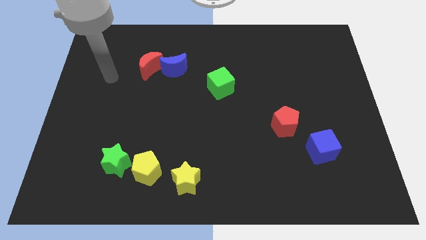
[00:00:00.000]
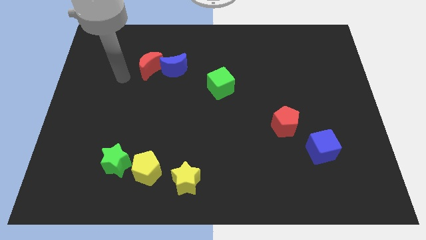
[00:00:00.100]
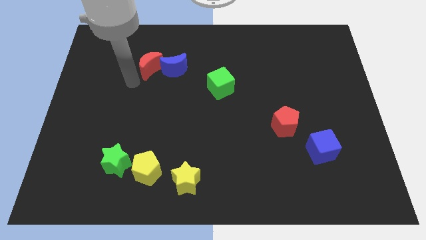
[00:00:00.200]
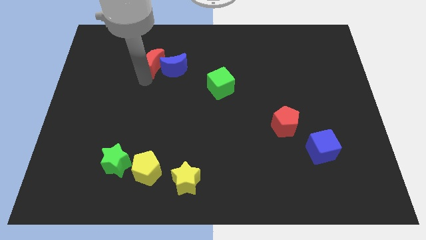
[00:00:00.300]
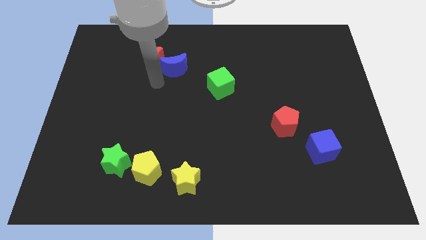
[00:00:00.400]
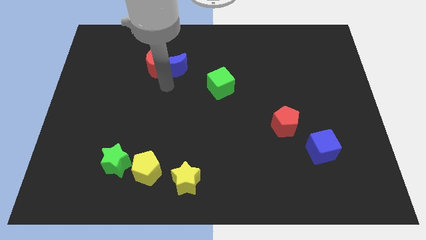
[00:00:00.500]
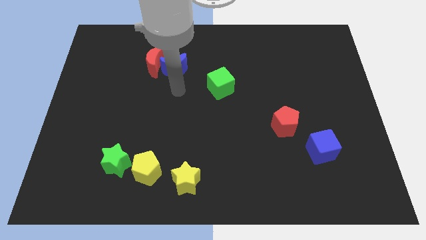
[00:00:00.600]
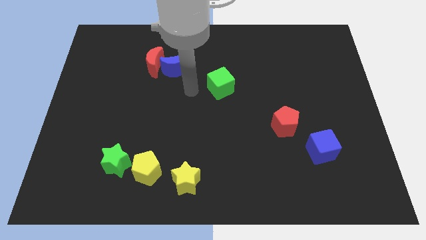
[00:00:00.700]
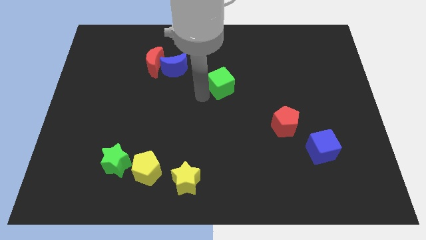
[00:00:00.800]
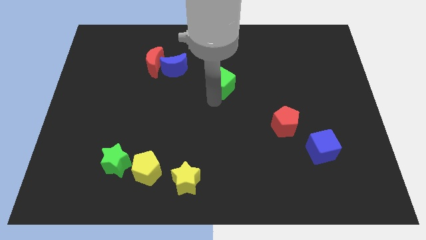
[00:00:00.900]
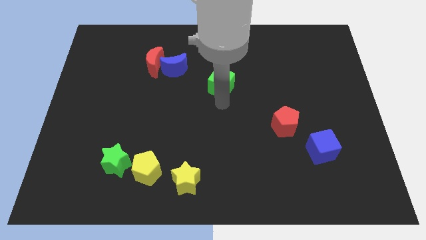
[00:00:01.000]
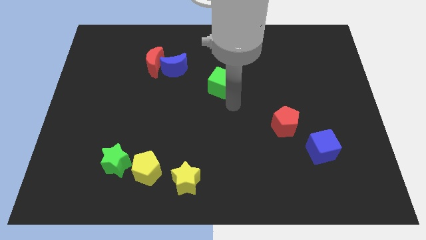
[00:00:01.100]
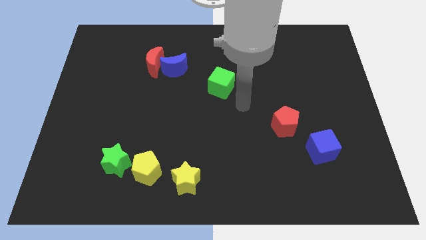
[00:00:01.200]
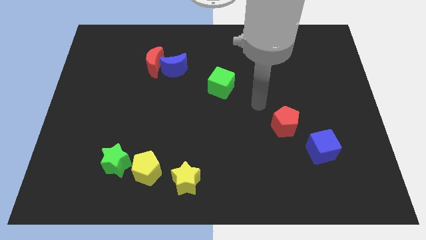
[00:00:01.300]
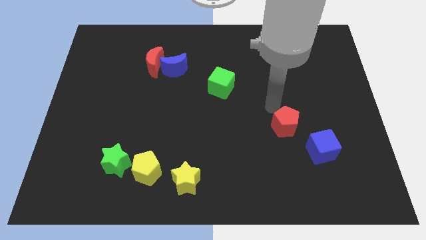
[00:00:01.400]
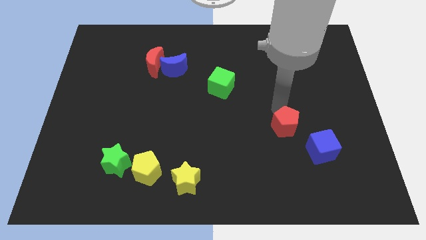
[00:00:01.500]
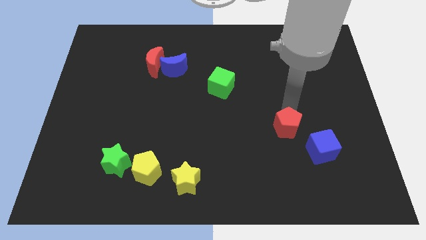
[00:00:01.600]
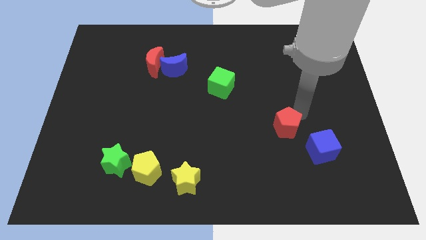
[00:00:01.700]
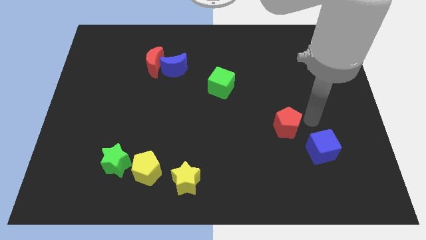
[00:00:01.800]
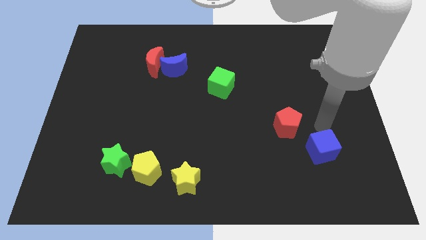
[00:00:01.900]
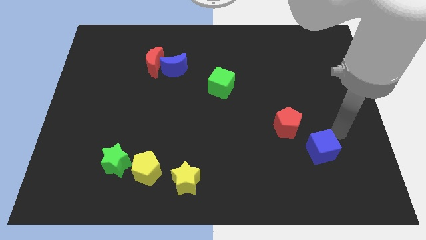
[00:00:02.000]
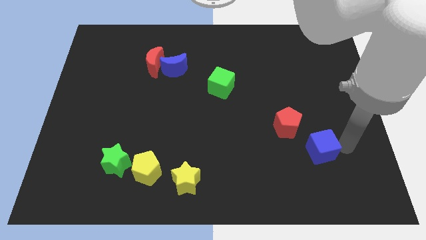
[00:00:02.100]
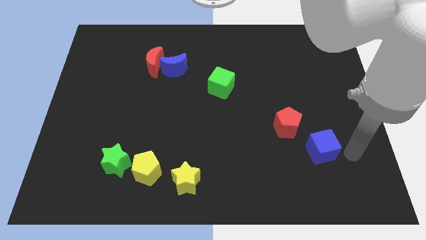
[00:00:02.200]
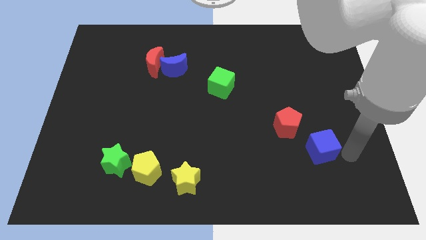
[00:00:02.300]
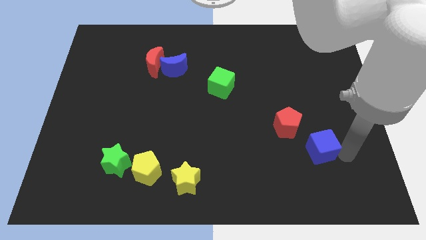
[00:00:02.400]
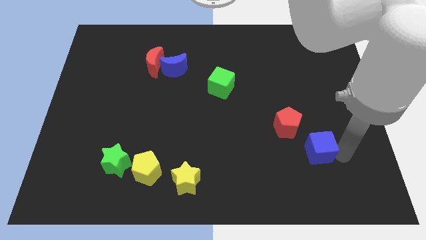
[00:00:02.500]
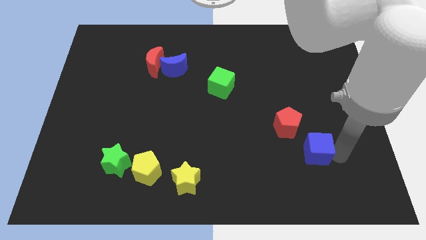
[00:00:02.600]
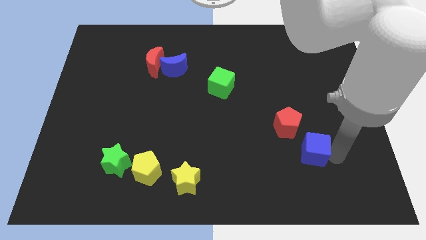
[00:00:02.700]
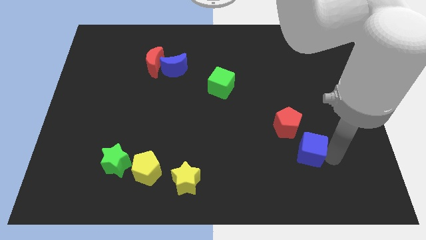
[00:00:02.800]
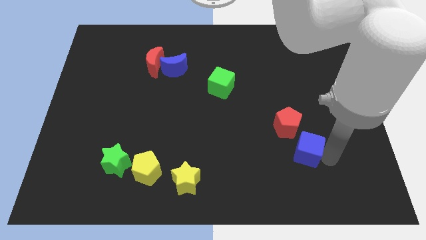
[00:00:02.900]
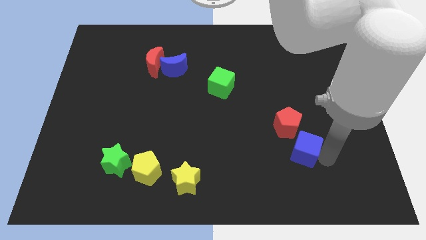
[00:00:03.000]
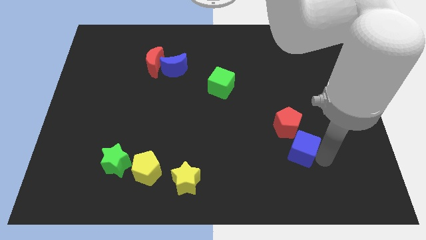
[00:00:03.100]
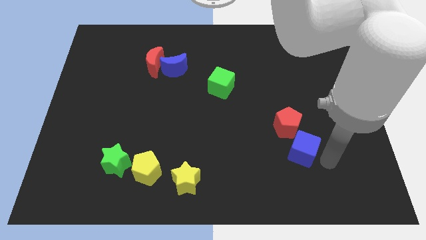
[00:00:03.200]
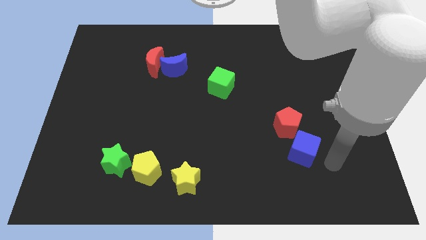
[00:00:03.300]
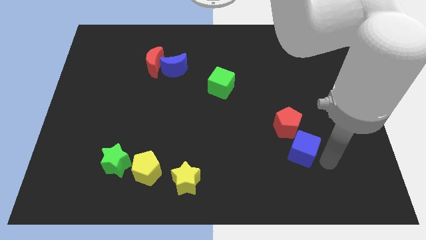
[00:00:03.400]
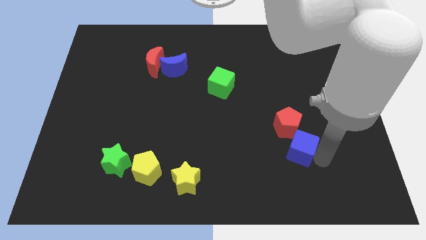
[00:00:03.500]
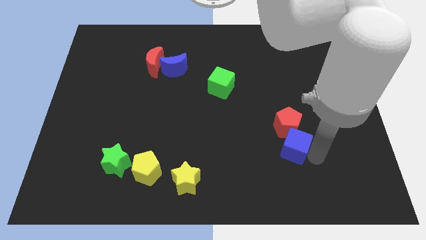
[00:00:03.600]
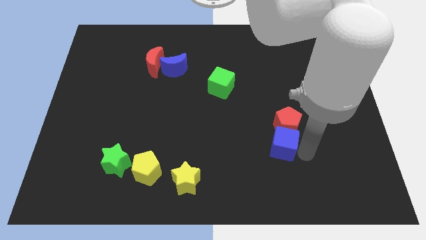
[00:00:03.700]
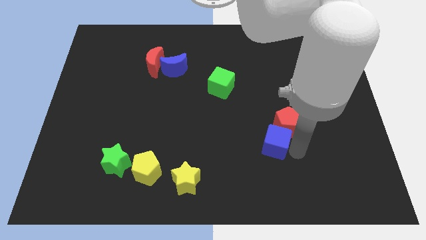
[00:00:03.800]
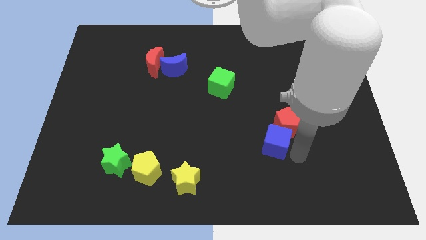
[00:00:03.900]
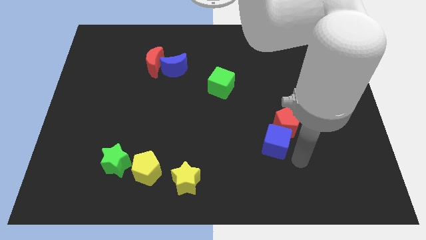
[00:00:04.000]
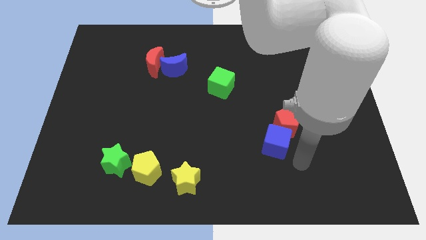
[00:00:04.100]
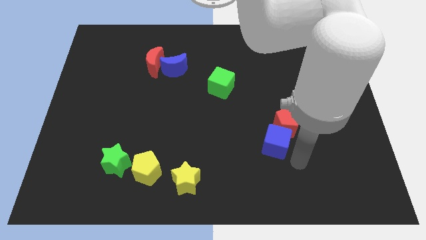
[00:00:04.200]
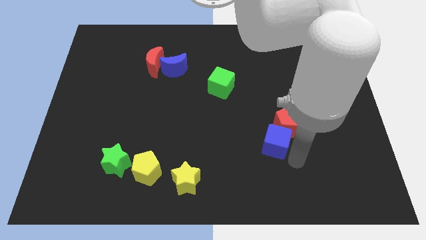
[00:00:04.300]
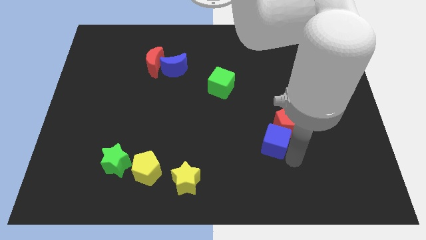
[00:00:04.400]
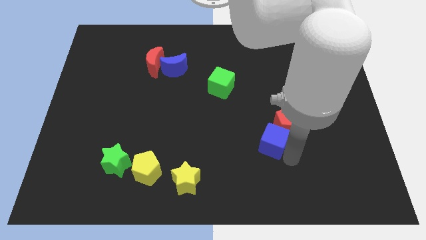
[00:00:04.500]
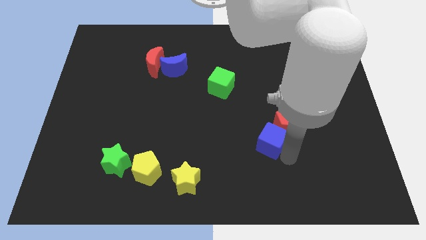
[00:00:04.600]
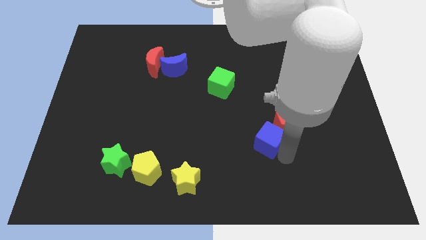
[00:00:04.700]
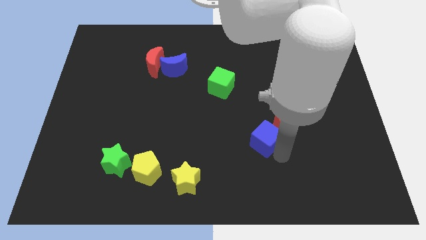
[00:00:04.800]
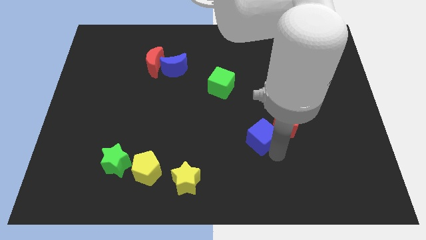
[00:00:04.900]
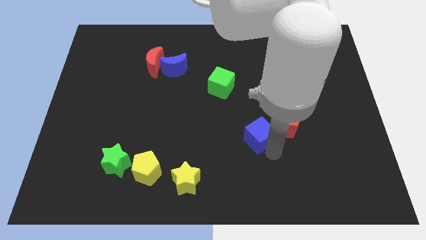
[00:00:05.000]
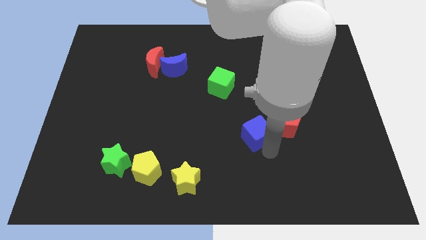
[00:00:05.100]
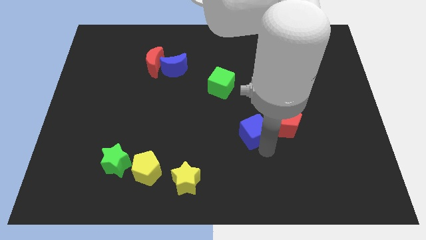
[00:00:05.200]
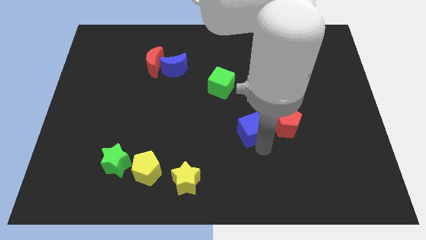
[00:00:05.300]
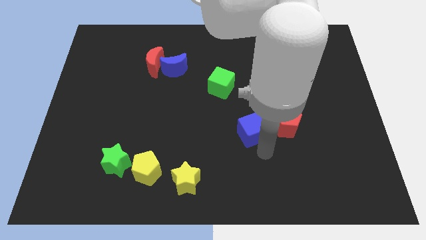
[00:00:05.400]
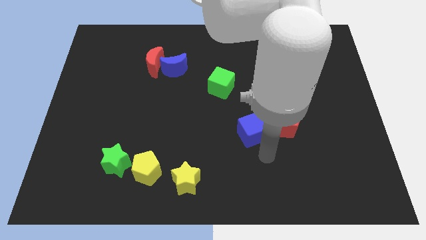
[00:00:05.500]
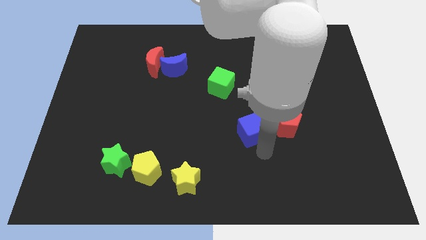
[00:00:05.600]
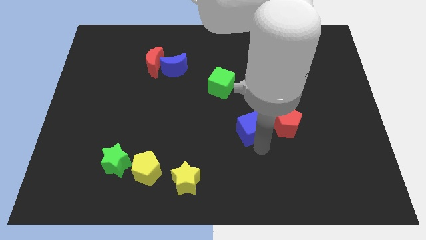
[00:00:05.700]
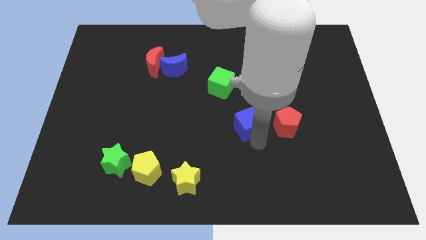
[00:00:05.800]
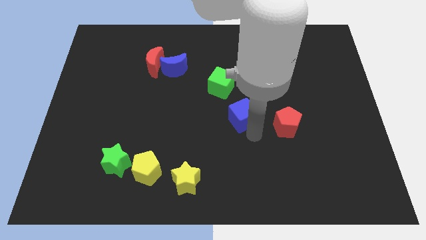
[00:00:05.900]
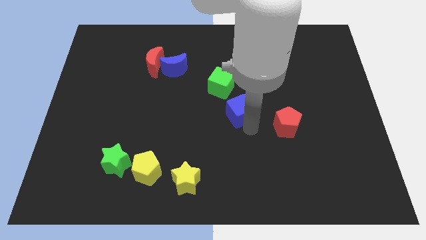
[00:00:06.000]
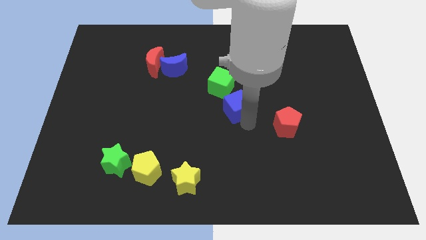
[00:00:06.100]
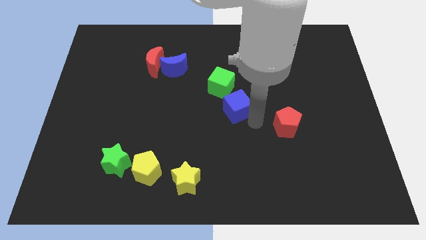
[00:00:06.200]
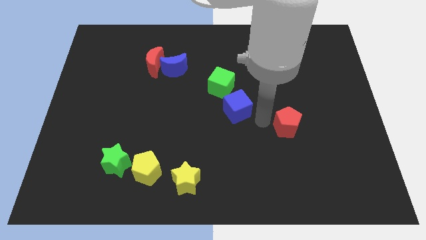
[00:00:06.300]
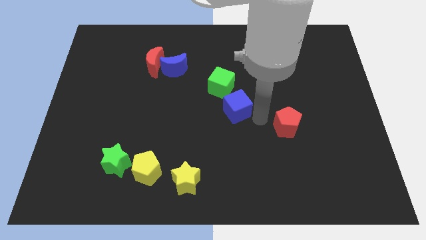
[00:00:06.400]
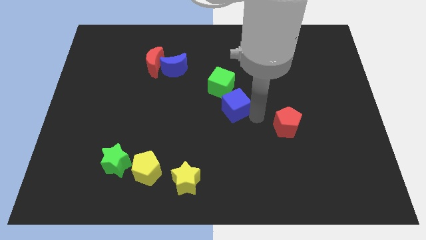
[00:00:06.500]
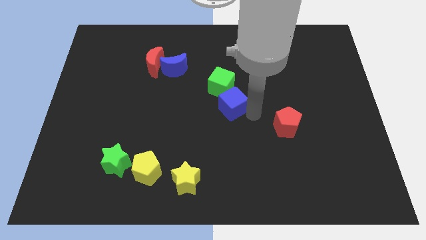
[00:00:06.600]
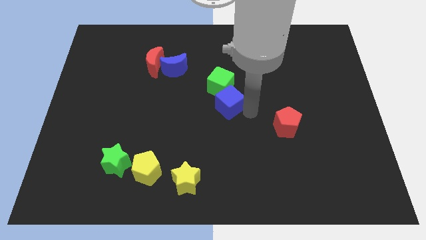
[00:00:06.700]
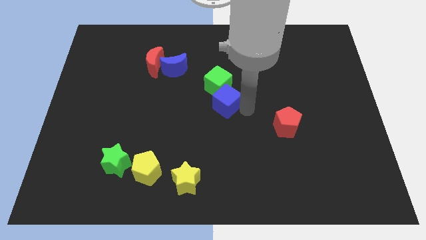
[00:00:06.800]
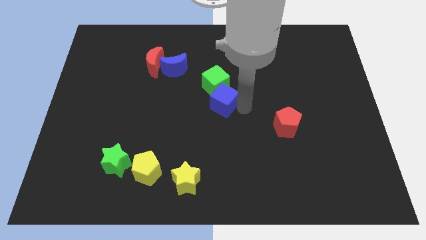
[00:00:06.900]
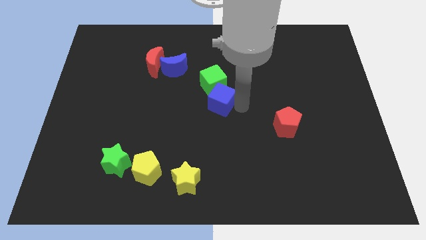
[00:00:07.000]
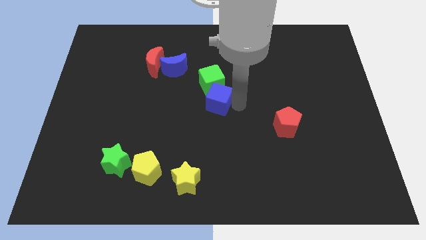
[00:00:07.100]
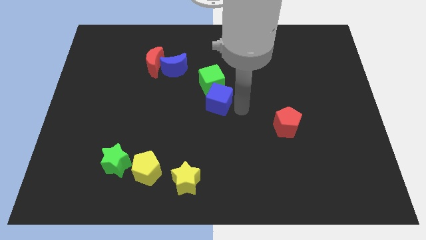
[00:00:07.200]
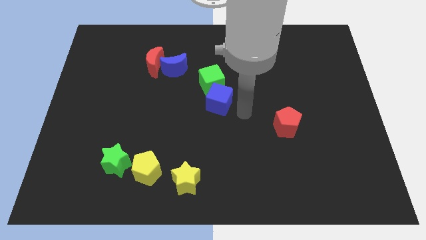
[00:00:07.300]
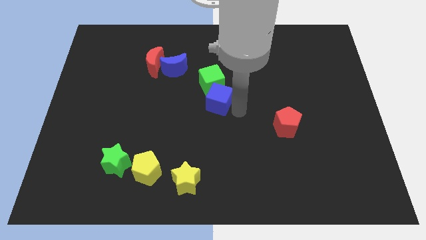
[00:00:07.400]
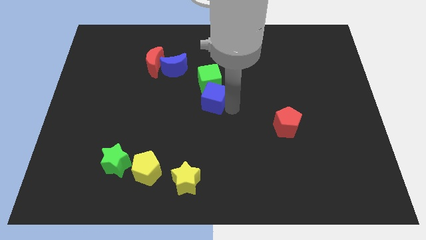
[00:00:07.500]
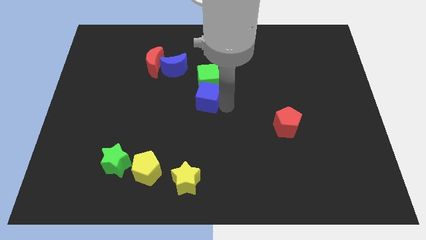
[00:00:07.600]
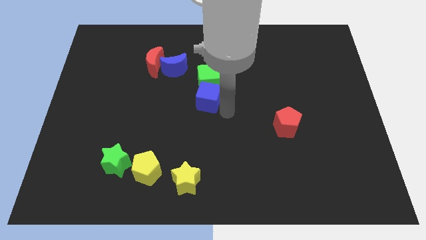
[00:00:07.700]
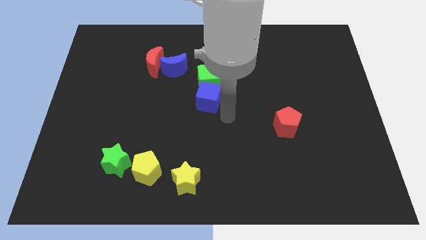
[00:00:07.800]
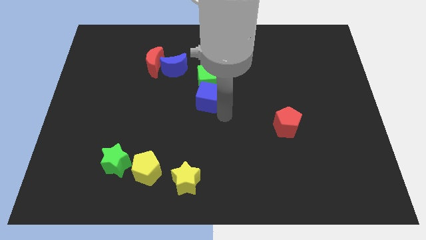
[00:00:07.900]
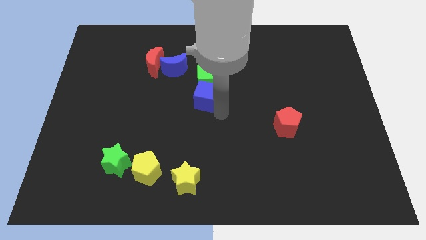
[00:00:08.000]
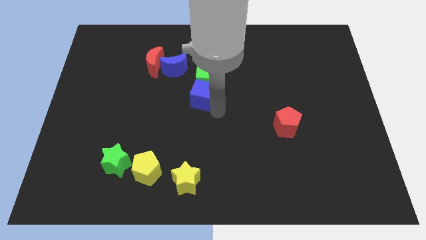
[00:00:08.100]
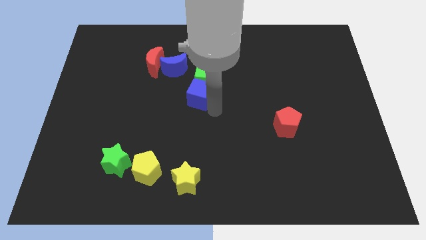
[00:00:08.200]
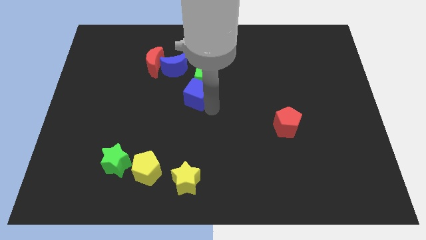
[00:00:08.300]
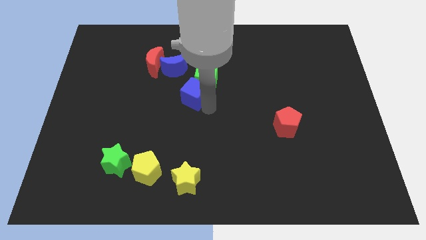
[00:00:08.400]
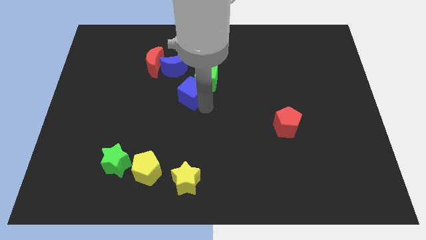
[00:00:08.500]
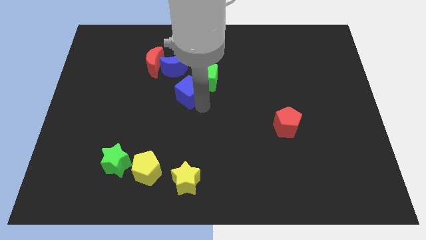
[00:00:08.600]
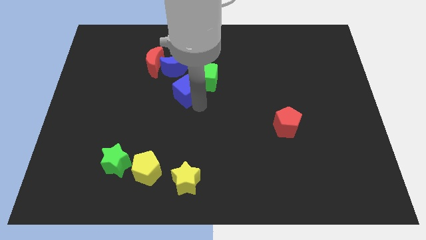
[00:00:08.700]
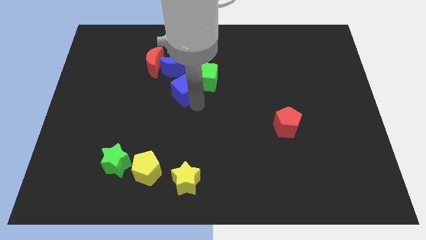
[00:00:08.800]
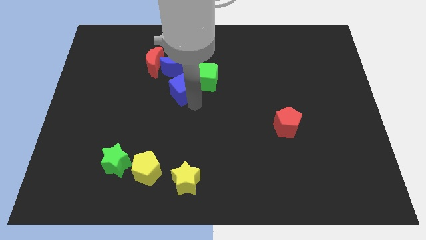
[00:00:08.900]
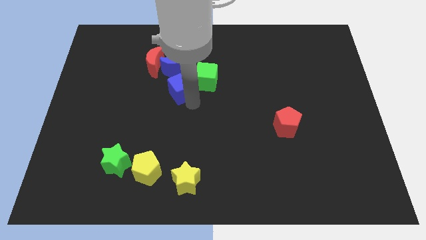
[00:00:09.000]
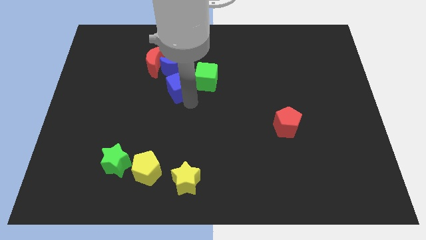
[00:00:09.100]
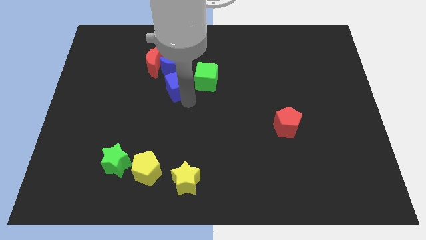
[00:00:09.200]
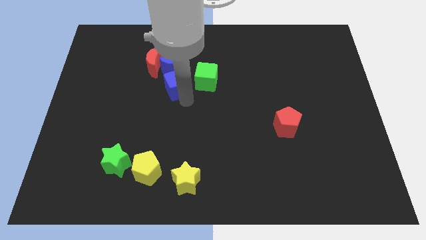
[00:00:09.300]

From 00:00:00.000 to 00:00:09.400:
move the blue cube close to the blue moon
